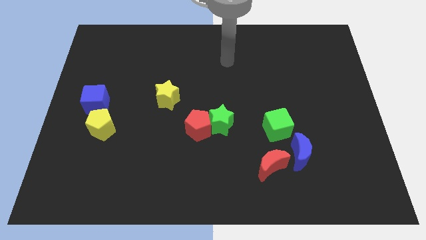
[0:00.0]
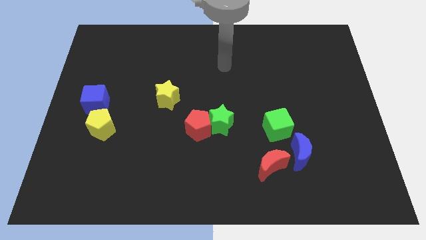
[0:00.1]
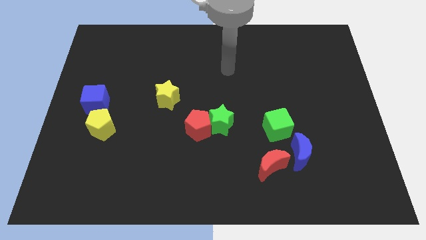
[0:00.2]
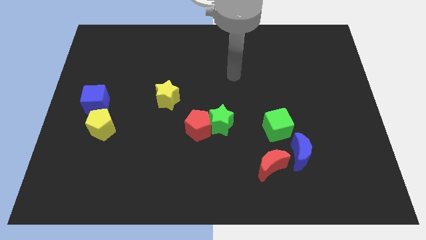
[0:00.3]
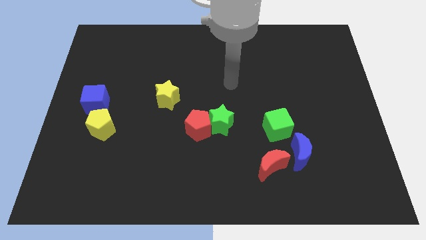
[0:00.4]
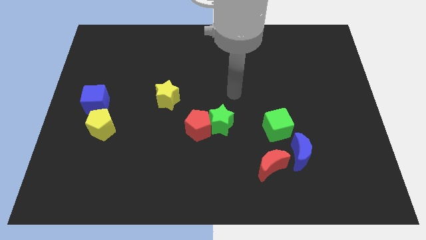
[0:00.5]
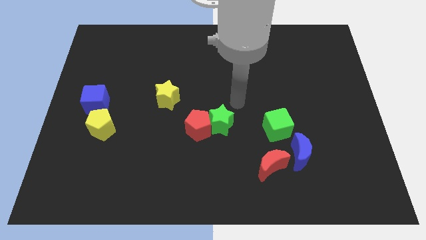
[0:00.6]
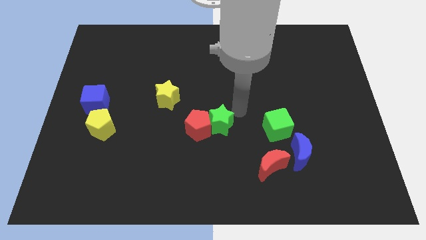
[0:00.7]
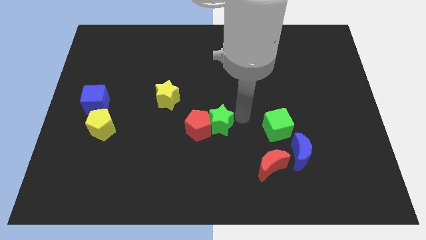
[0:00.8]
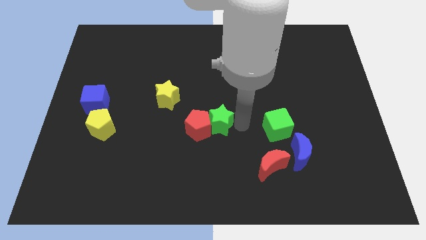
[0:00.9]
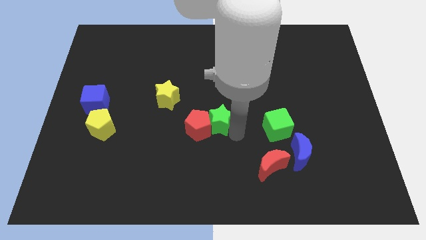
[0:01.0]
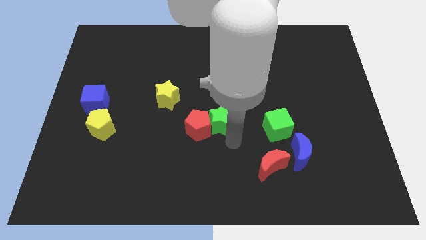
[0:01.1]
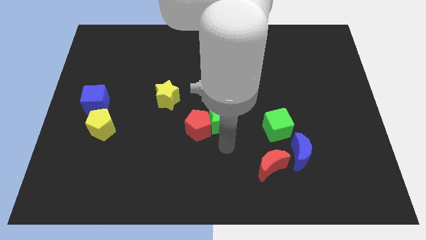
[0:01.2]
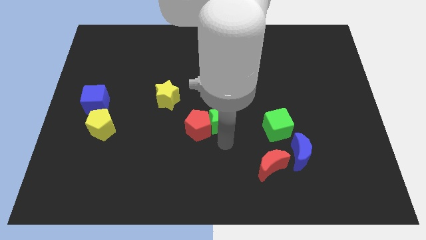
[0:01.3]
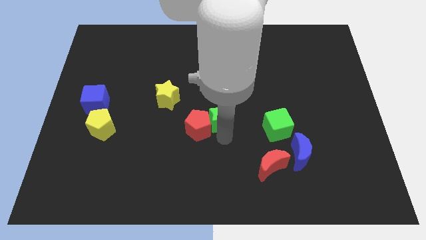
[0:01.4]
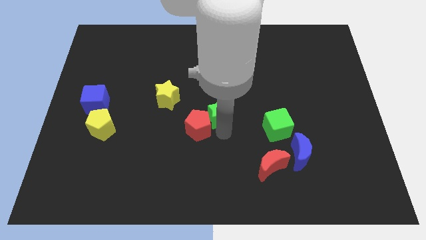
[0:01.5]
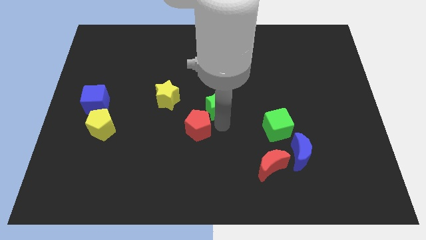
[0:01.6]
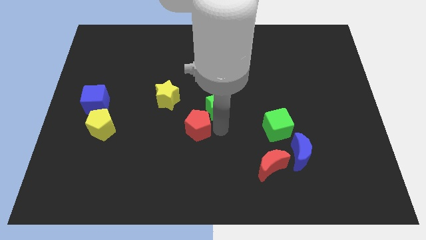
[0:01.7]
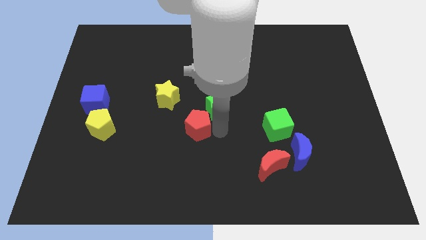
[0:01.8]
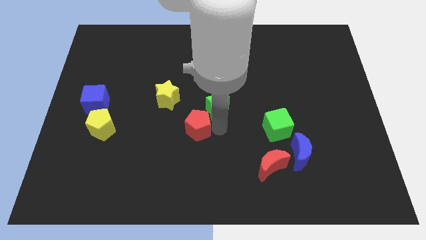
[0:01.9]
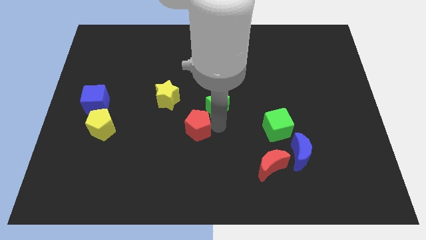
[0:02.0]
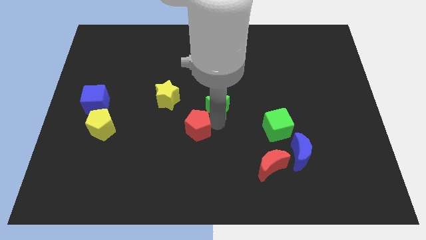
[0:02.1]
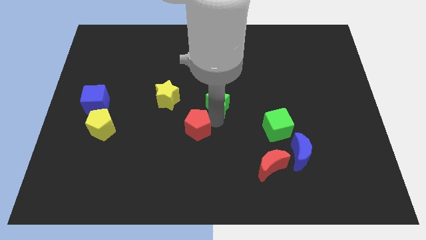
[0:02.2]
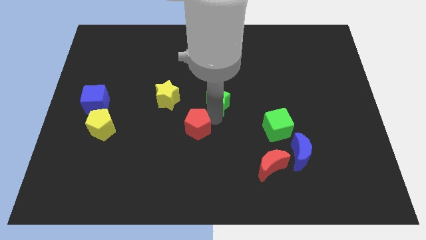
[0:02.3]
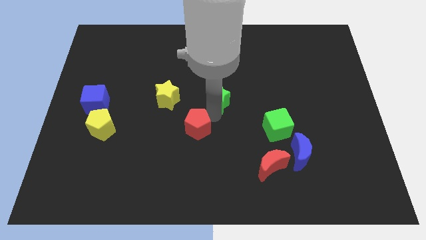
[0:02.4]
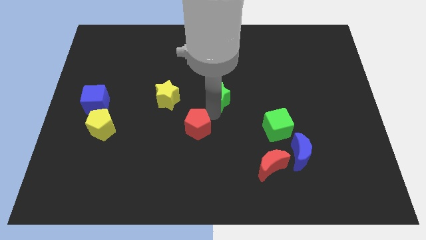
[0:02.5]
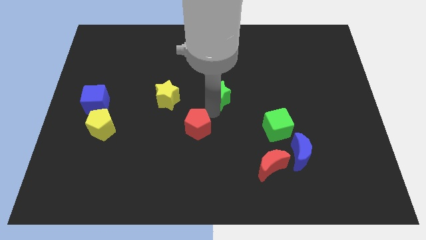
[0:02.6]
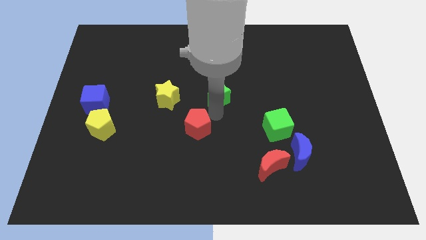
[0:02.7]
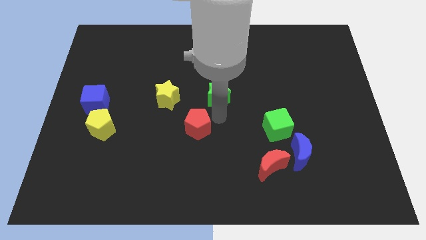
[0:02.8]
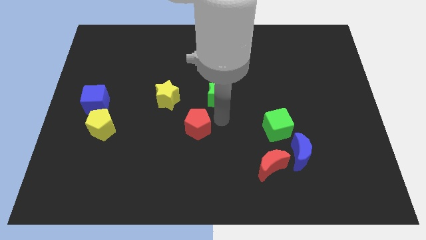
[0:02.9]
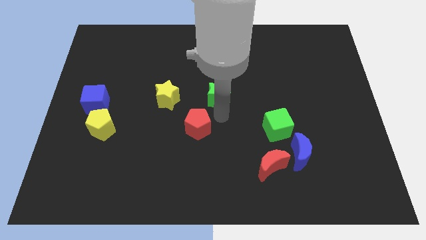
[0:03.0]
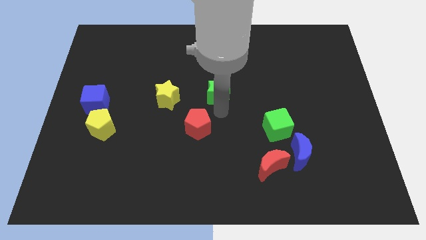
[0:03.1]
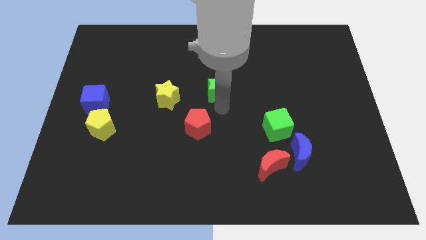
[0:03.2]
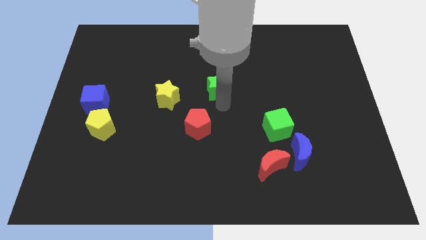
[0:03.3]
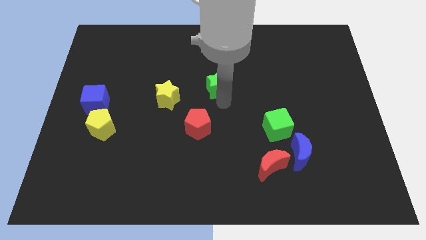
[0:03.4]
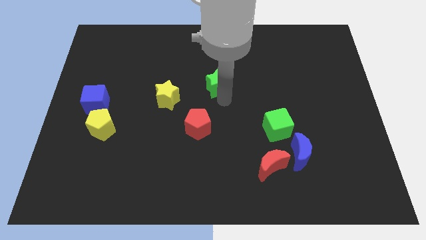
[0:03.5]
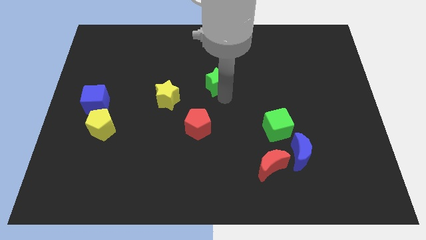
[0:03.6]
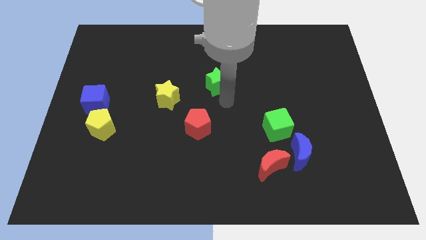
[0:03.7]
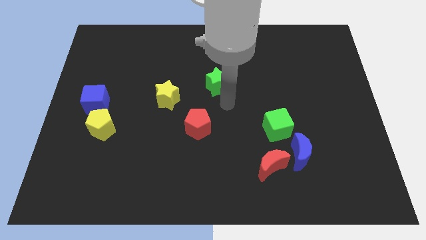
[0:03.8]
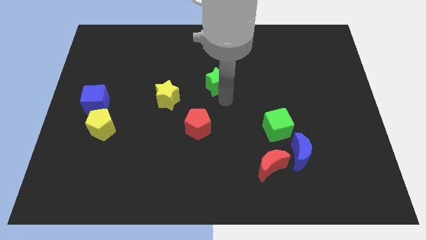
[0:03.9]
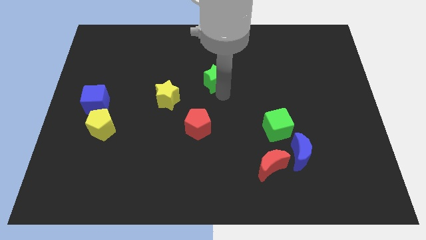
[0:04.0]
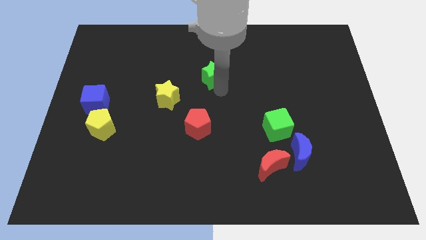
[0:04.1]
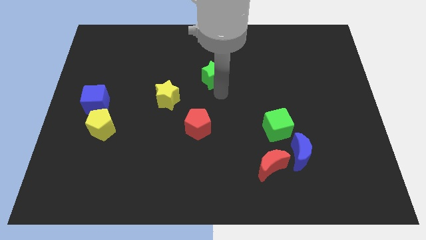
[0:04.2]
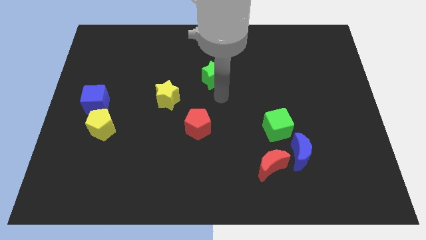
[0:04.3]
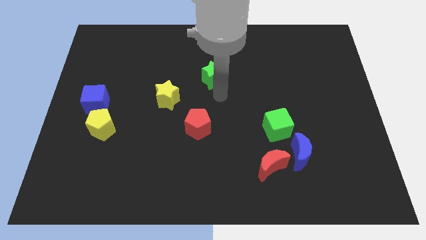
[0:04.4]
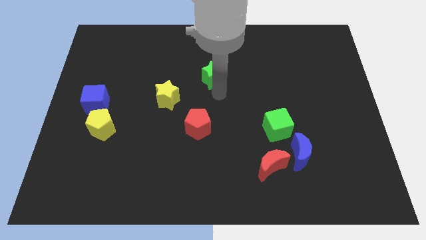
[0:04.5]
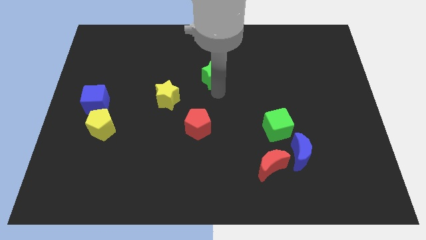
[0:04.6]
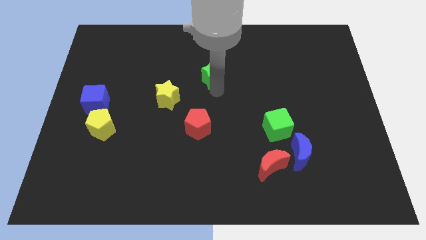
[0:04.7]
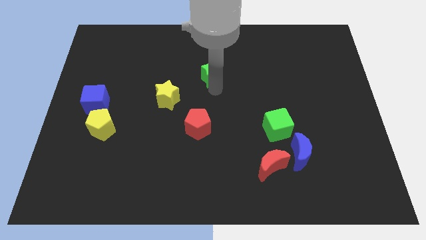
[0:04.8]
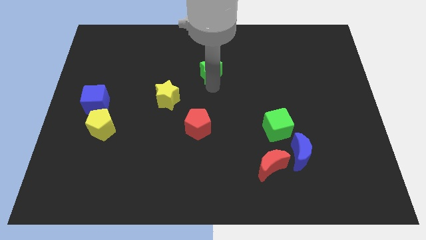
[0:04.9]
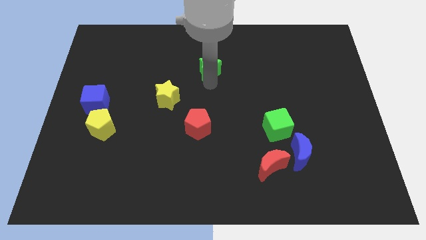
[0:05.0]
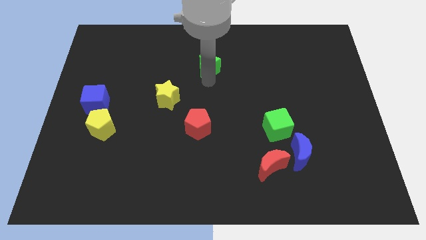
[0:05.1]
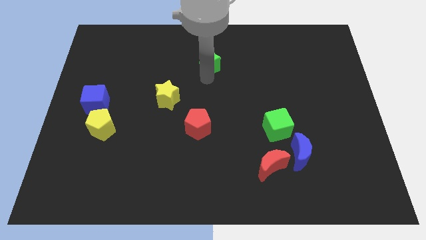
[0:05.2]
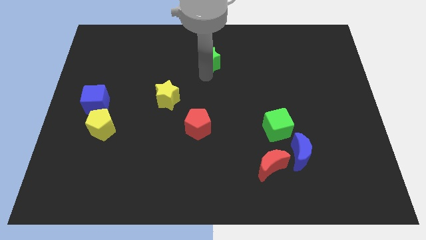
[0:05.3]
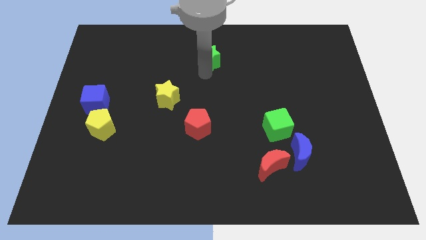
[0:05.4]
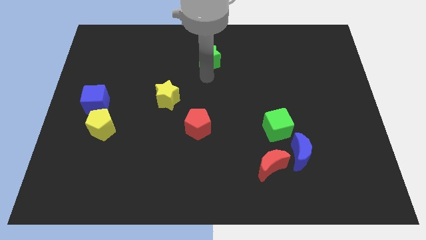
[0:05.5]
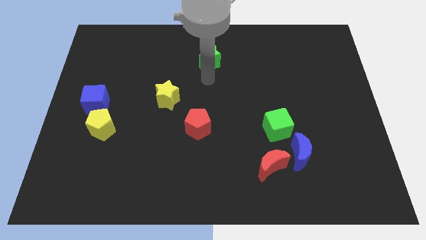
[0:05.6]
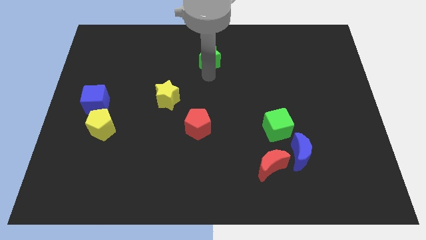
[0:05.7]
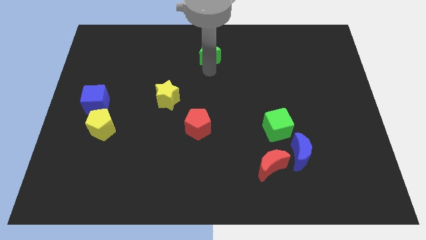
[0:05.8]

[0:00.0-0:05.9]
move the green star to the top

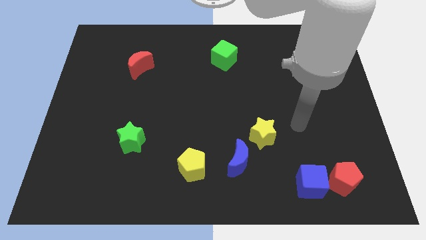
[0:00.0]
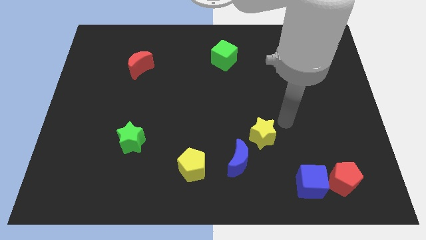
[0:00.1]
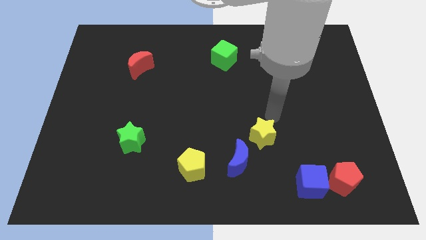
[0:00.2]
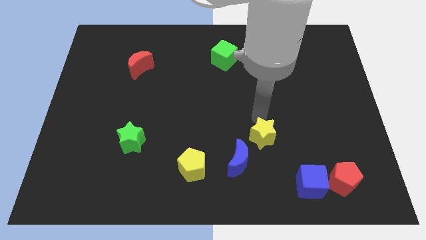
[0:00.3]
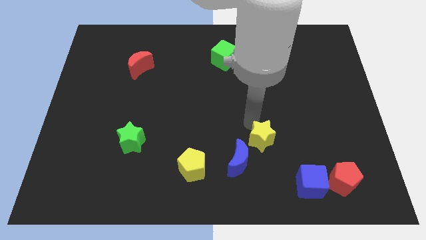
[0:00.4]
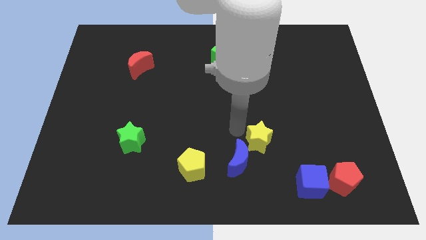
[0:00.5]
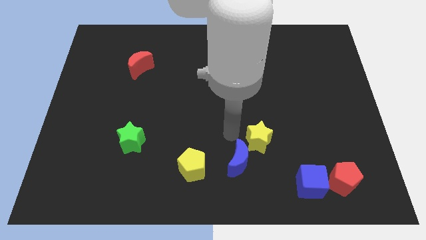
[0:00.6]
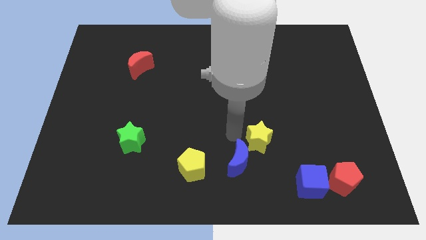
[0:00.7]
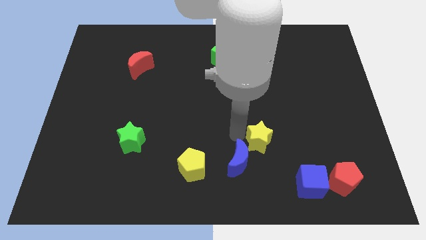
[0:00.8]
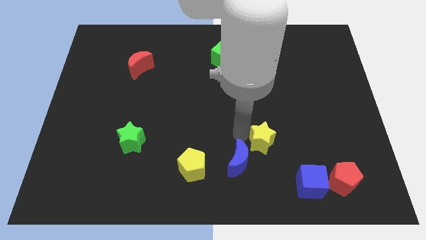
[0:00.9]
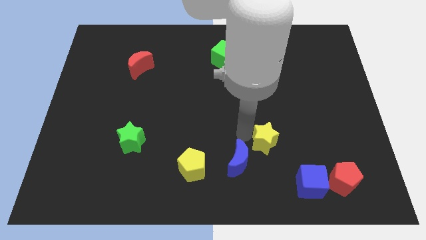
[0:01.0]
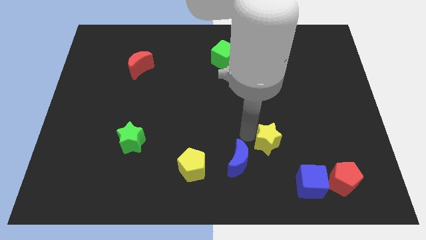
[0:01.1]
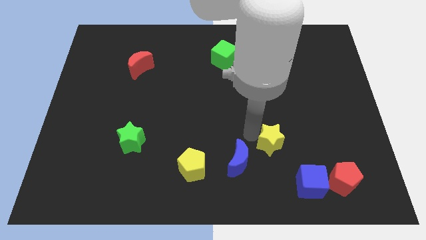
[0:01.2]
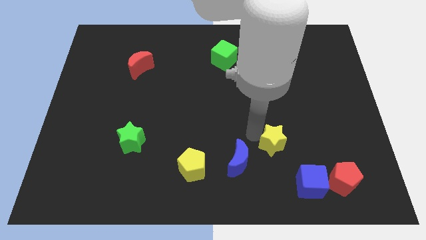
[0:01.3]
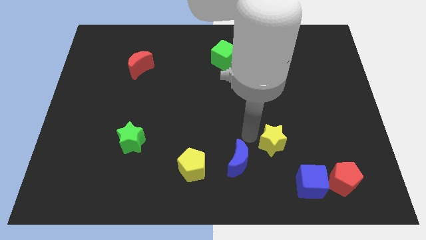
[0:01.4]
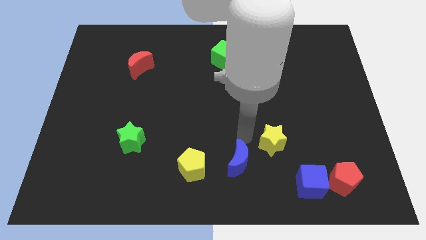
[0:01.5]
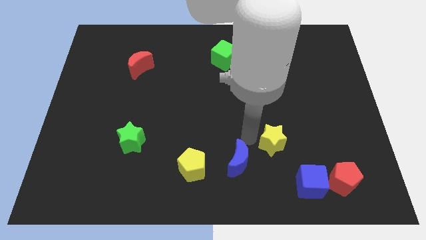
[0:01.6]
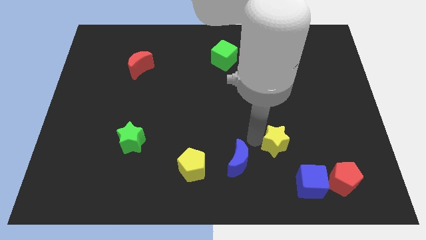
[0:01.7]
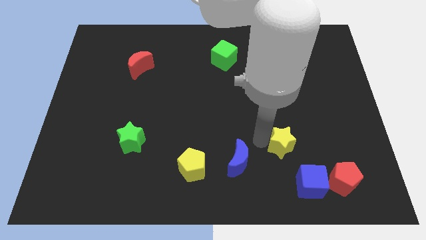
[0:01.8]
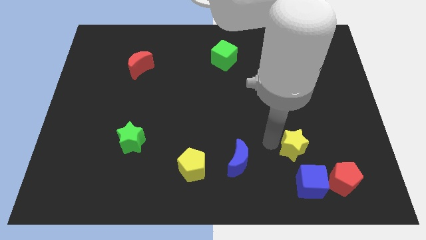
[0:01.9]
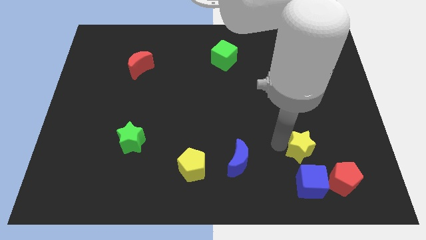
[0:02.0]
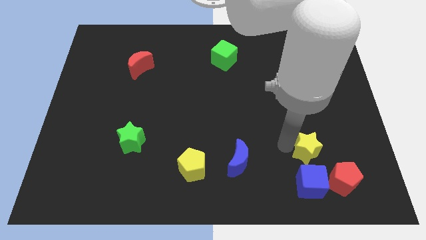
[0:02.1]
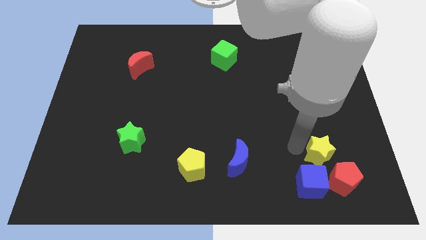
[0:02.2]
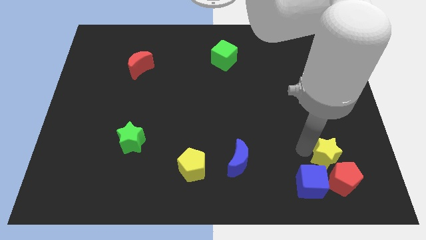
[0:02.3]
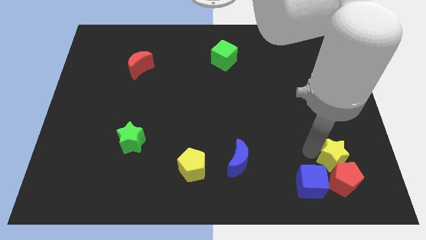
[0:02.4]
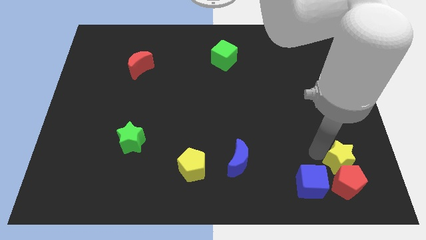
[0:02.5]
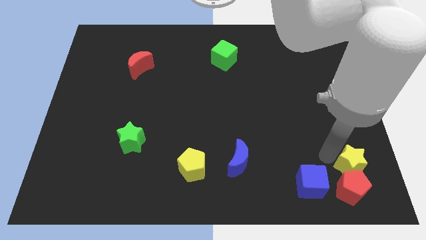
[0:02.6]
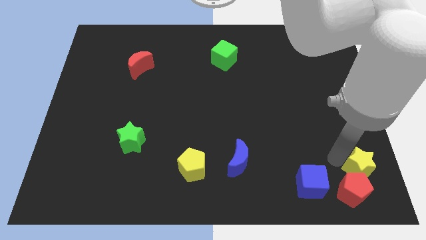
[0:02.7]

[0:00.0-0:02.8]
put the yellow star to the bottom right of the board
